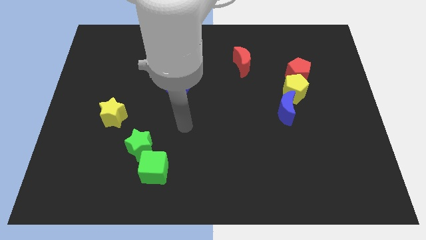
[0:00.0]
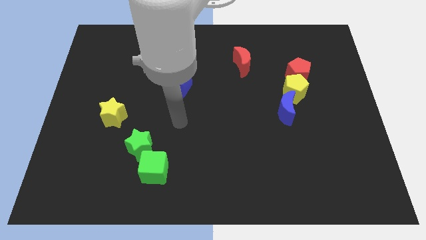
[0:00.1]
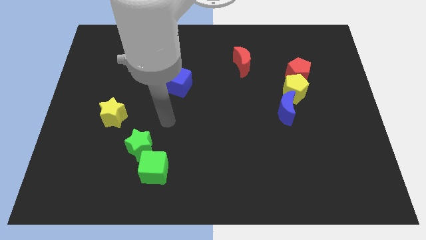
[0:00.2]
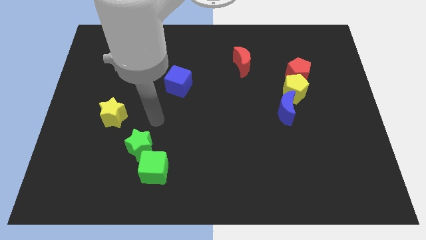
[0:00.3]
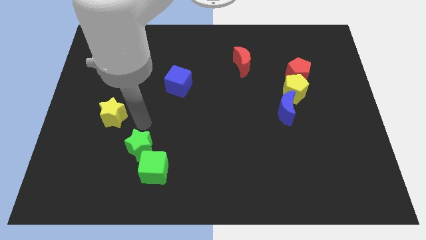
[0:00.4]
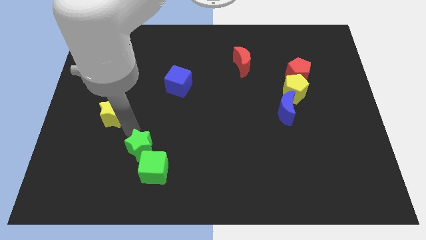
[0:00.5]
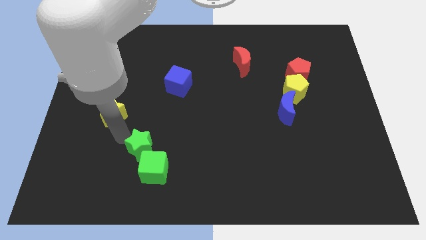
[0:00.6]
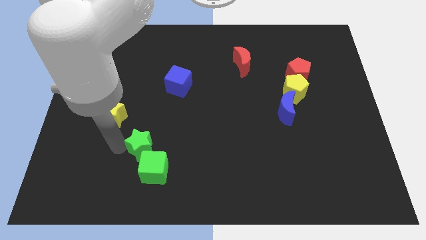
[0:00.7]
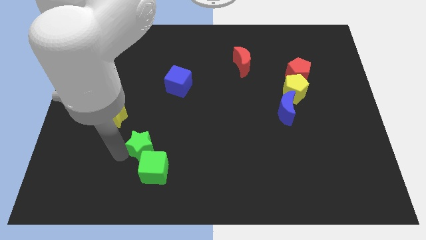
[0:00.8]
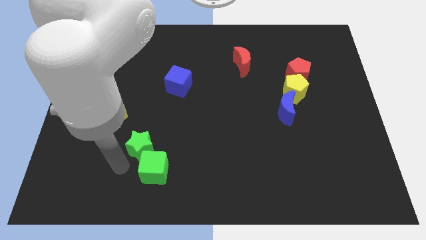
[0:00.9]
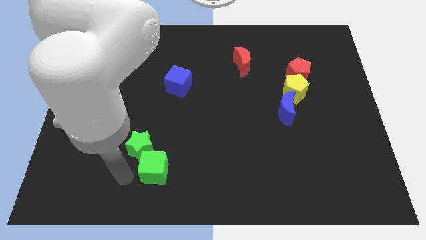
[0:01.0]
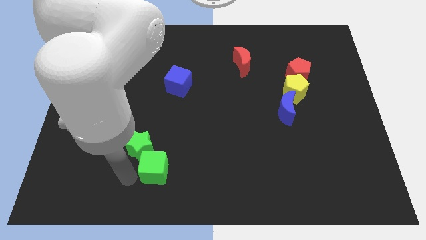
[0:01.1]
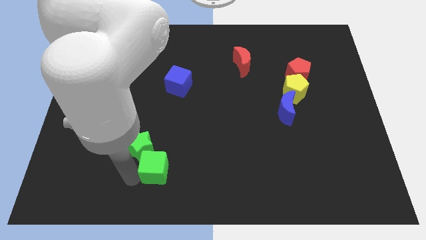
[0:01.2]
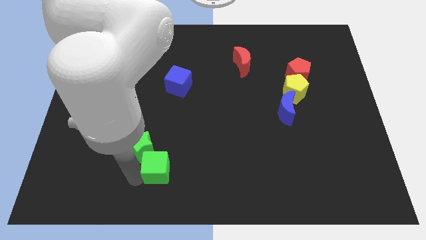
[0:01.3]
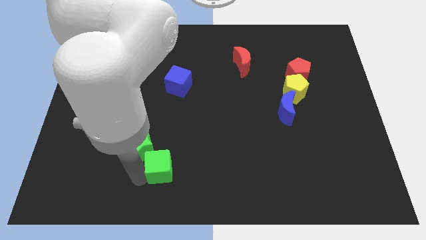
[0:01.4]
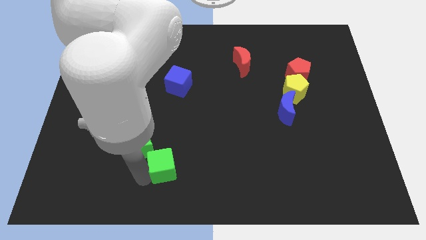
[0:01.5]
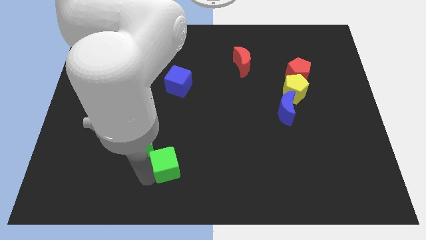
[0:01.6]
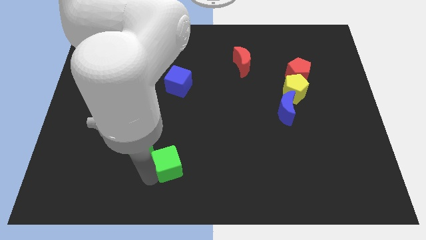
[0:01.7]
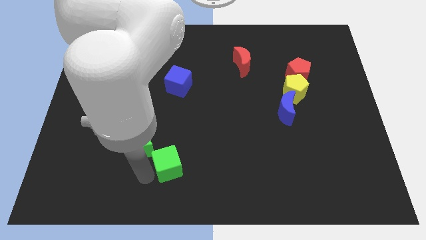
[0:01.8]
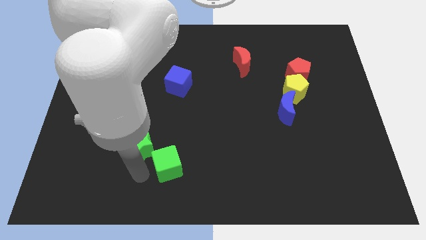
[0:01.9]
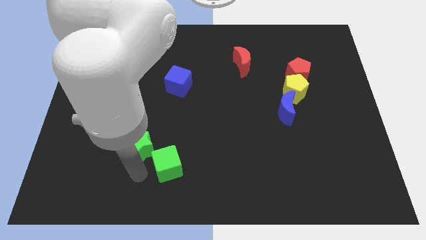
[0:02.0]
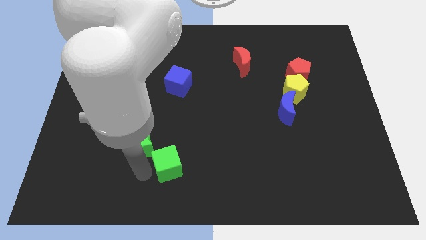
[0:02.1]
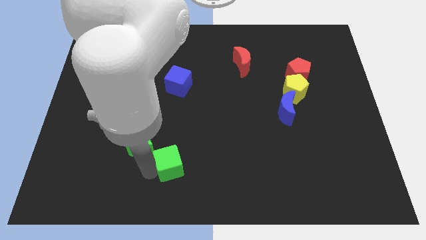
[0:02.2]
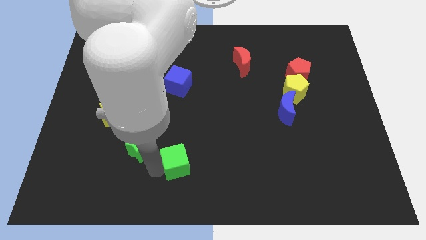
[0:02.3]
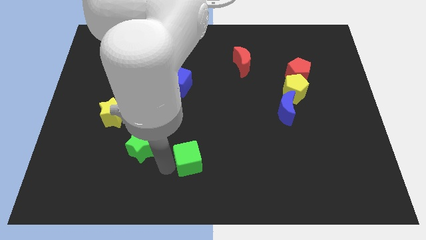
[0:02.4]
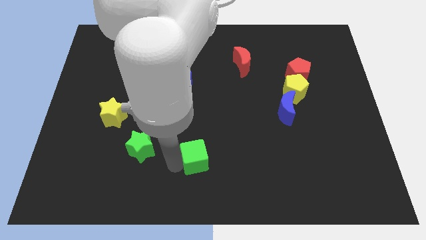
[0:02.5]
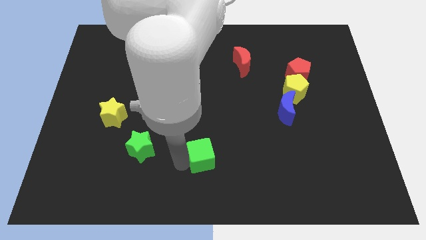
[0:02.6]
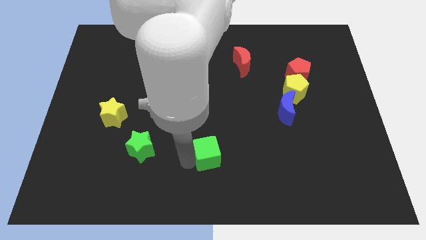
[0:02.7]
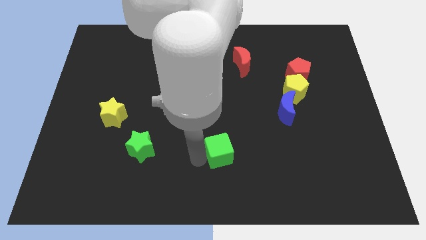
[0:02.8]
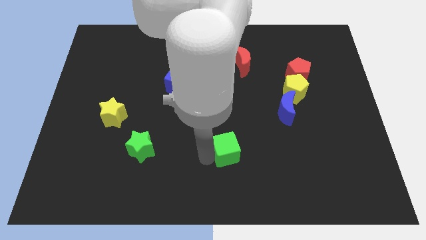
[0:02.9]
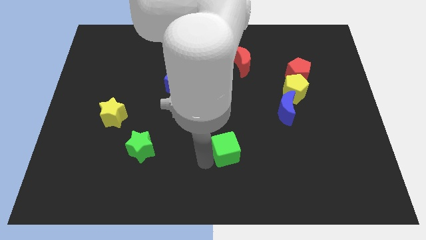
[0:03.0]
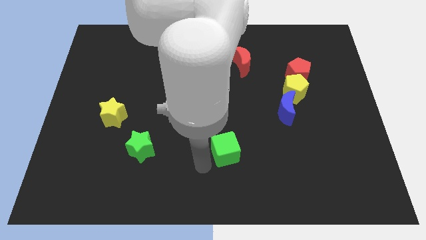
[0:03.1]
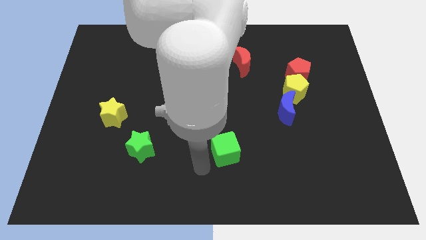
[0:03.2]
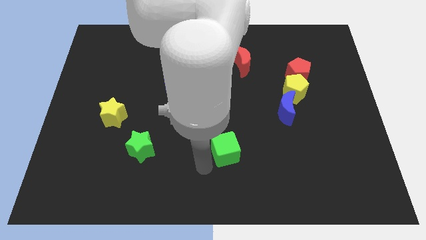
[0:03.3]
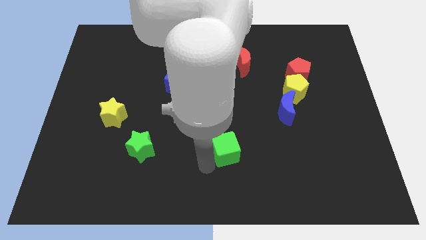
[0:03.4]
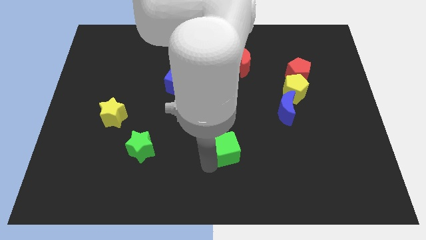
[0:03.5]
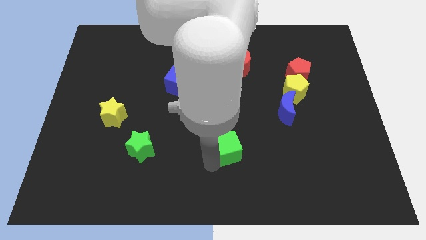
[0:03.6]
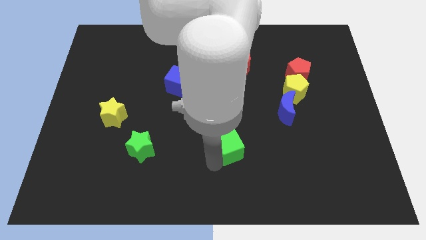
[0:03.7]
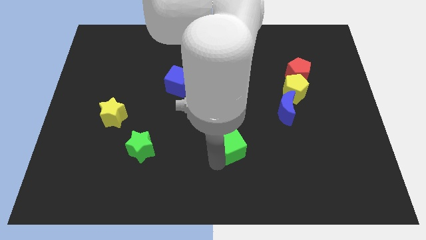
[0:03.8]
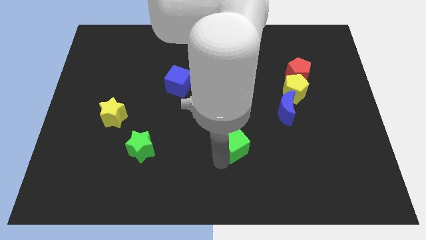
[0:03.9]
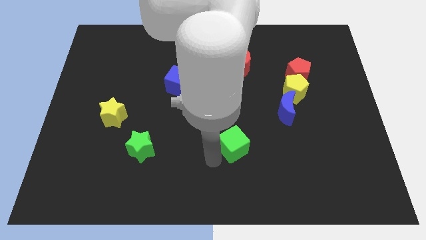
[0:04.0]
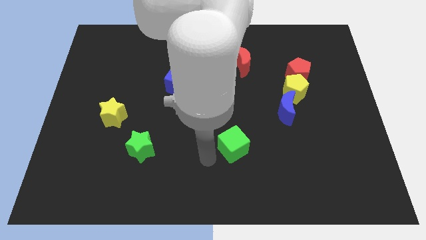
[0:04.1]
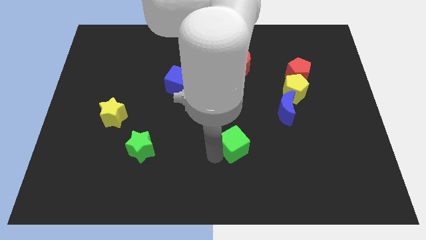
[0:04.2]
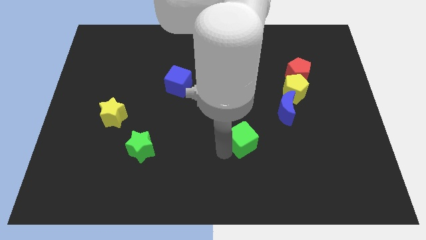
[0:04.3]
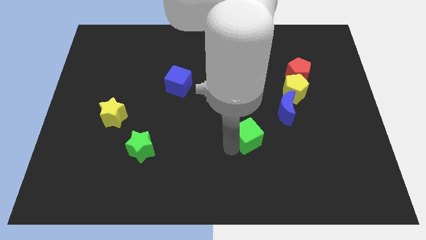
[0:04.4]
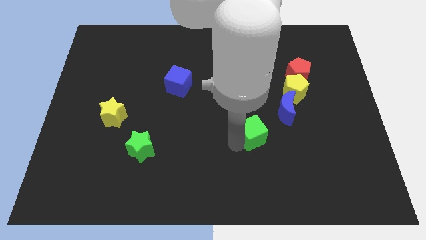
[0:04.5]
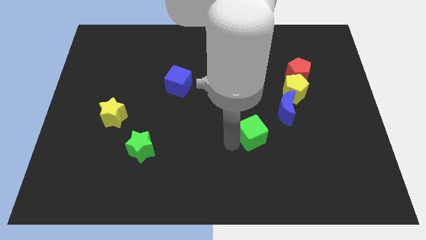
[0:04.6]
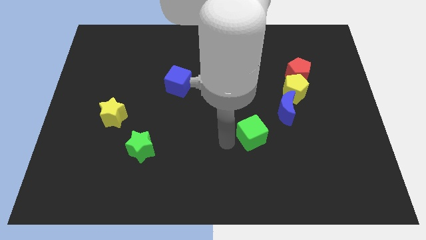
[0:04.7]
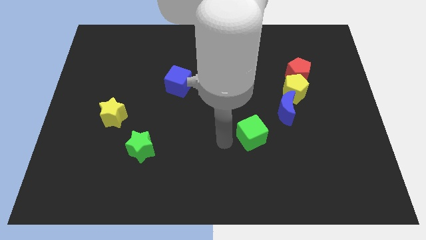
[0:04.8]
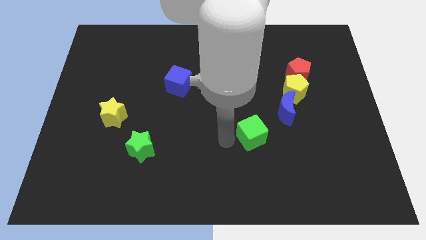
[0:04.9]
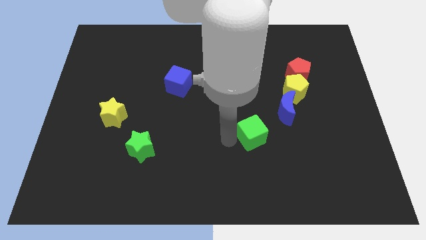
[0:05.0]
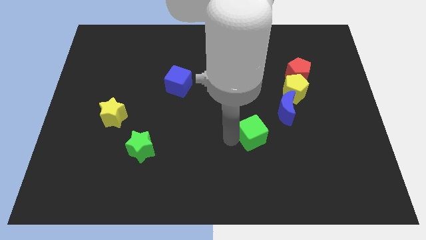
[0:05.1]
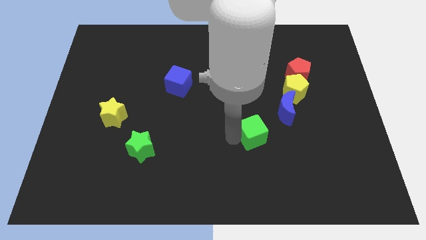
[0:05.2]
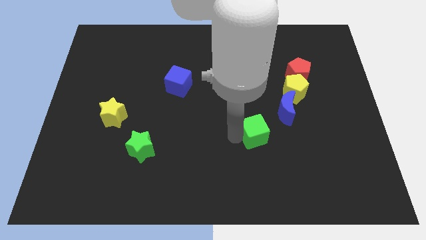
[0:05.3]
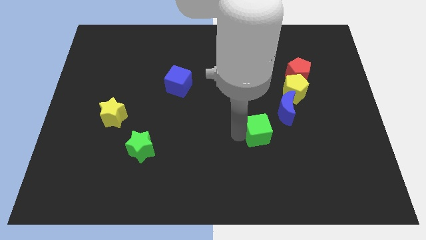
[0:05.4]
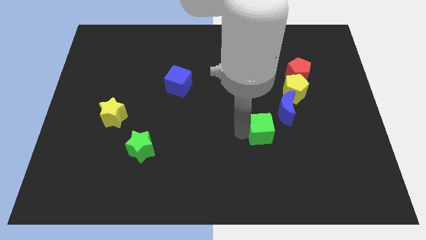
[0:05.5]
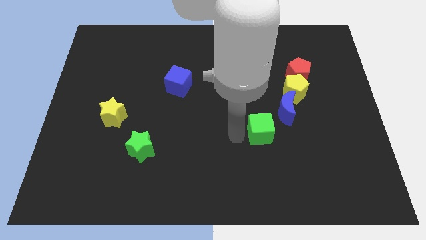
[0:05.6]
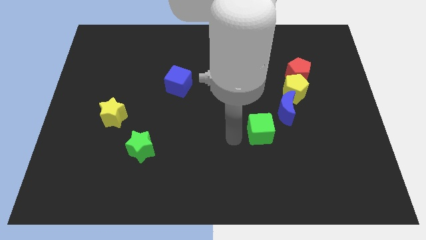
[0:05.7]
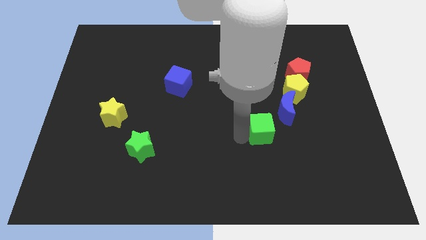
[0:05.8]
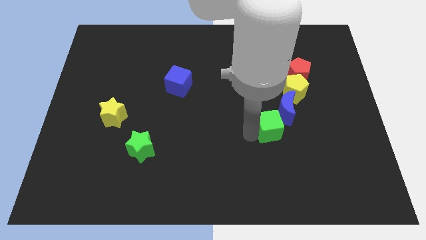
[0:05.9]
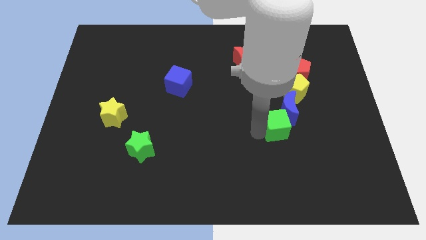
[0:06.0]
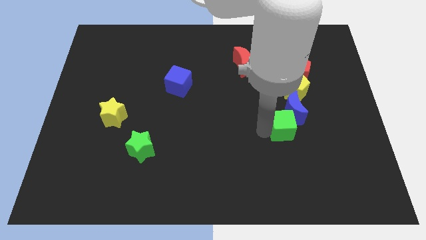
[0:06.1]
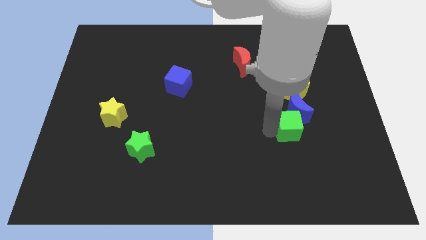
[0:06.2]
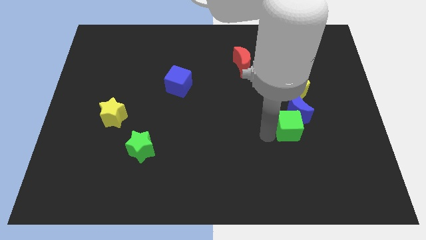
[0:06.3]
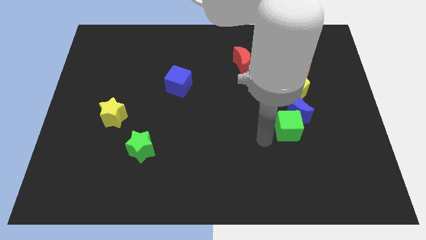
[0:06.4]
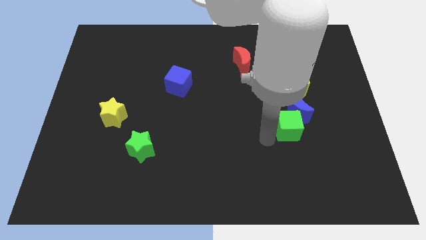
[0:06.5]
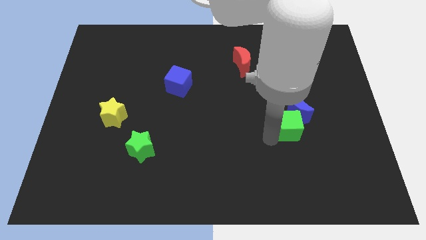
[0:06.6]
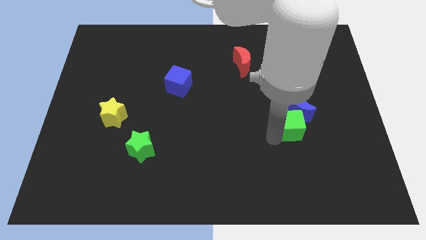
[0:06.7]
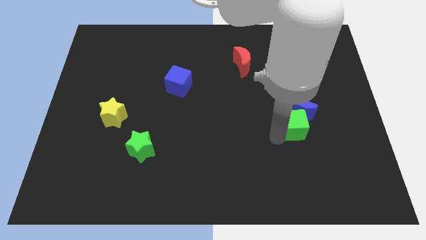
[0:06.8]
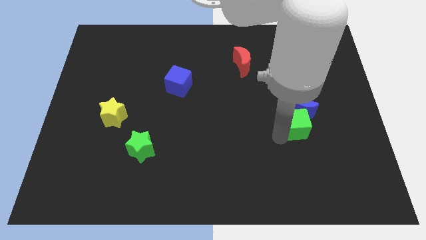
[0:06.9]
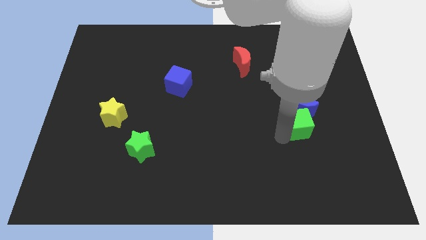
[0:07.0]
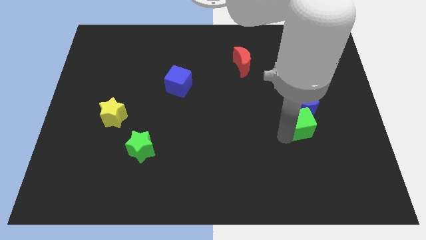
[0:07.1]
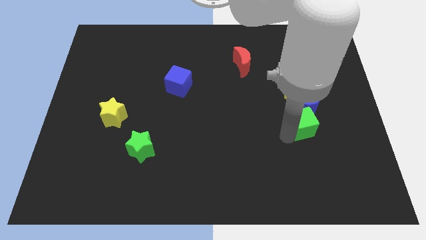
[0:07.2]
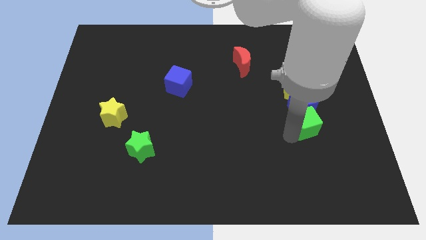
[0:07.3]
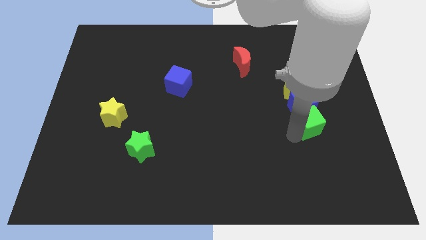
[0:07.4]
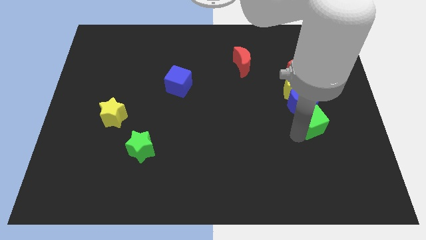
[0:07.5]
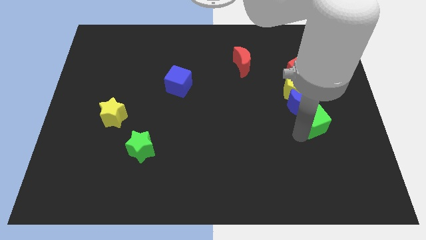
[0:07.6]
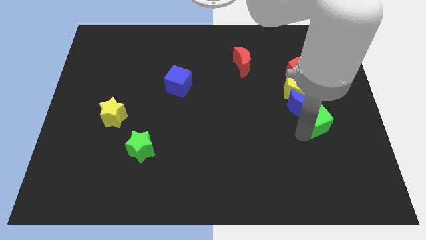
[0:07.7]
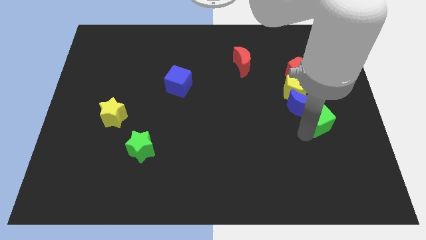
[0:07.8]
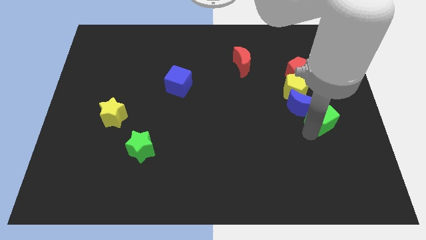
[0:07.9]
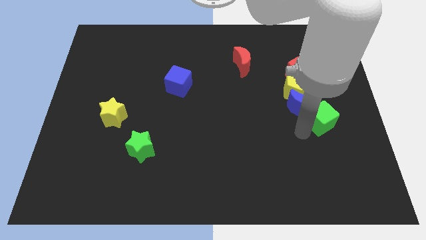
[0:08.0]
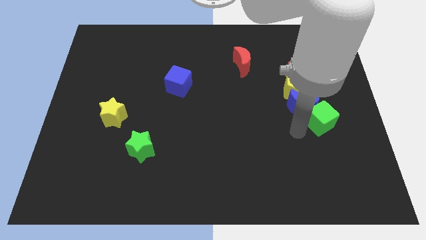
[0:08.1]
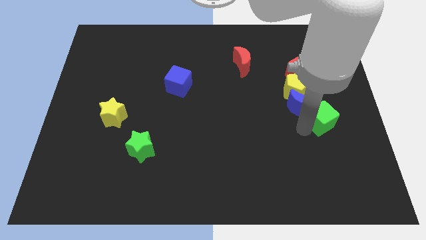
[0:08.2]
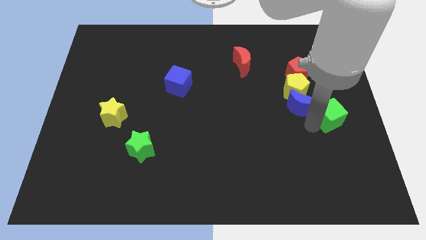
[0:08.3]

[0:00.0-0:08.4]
move the green cube to the right side
